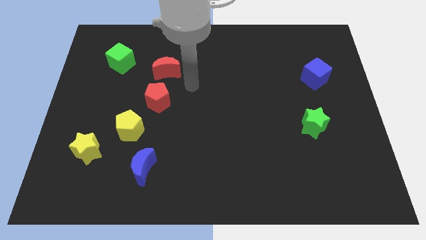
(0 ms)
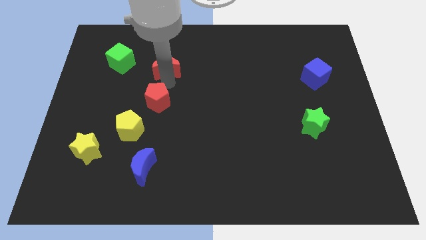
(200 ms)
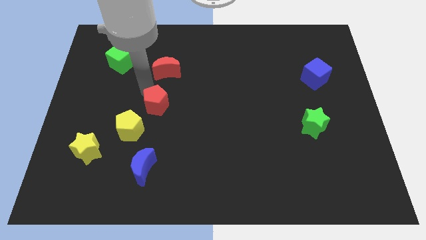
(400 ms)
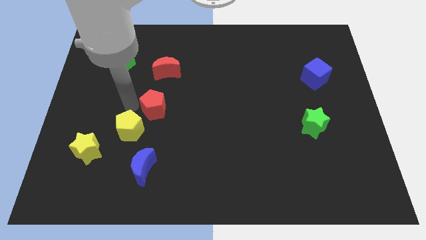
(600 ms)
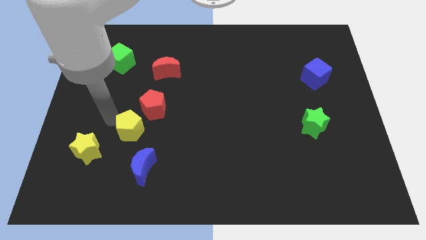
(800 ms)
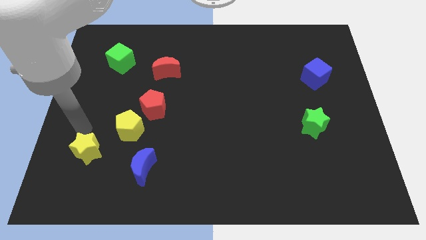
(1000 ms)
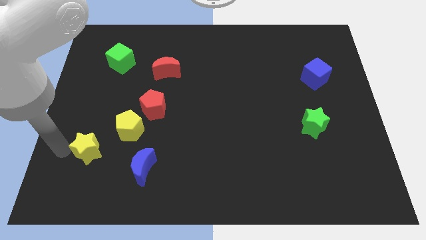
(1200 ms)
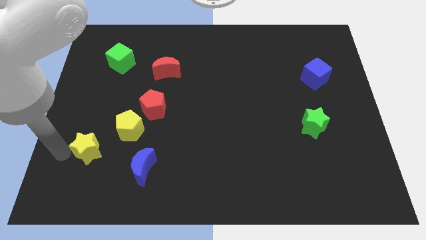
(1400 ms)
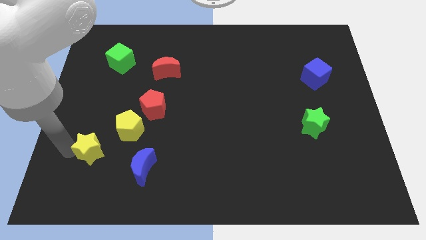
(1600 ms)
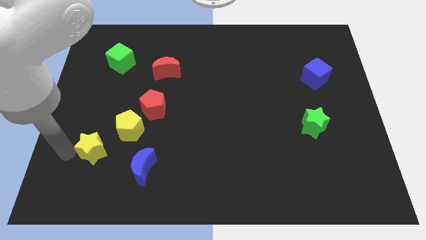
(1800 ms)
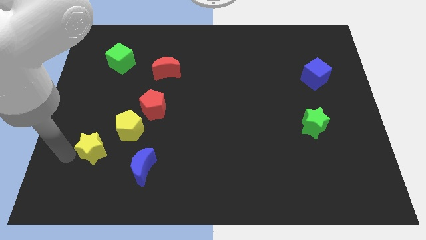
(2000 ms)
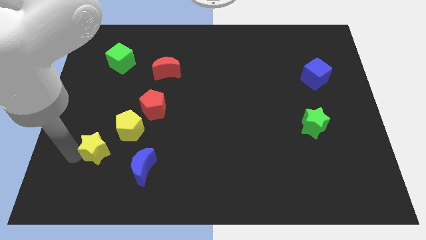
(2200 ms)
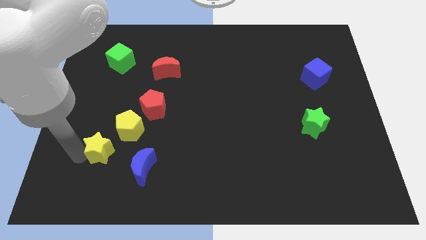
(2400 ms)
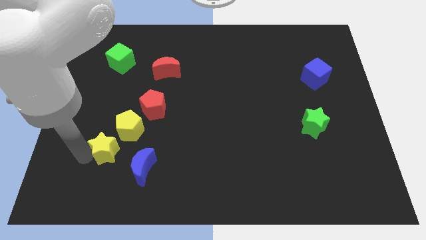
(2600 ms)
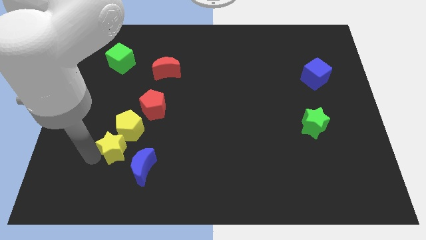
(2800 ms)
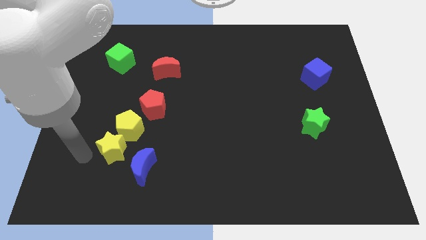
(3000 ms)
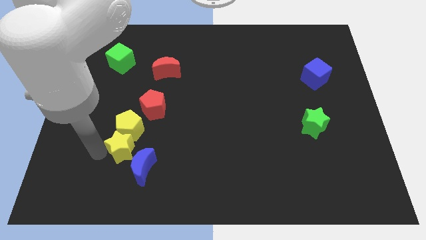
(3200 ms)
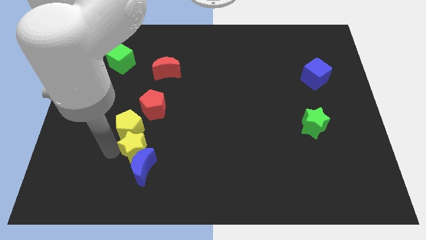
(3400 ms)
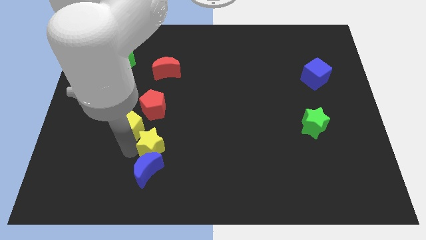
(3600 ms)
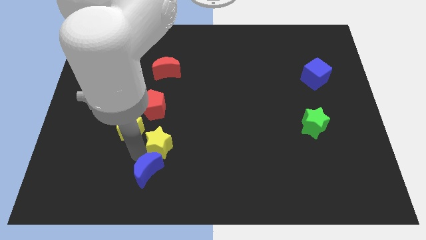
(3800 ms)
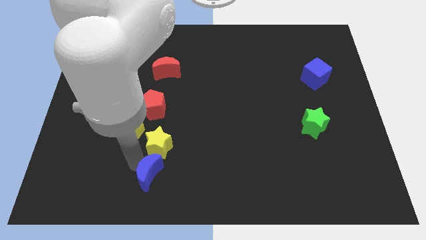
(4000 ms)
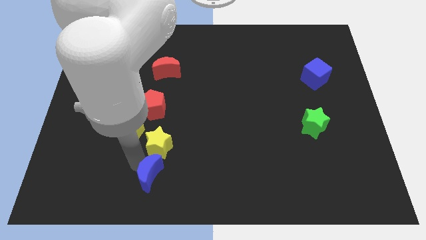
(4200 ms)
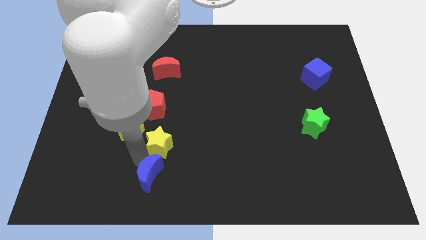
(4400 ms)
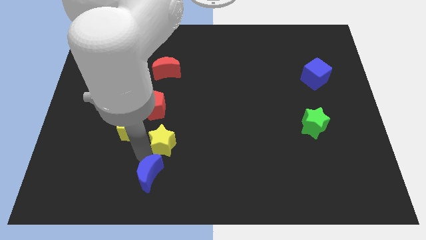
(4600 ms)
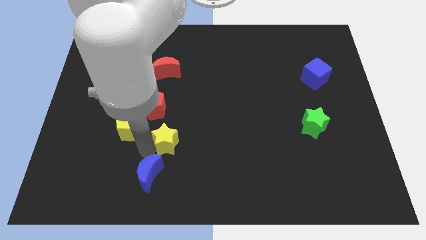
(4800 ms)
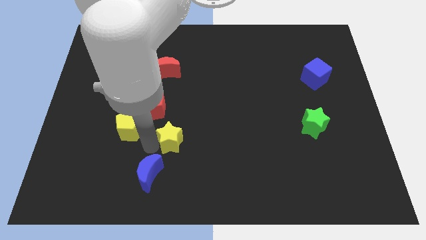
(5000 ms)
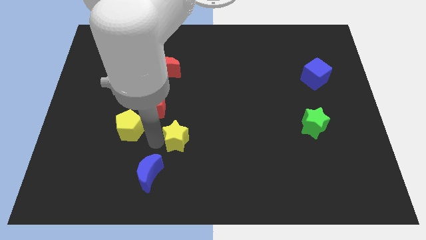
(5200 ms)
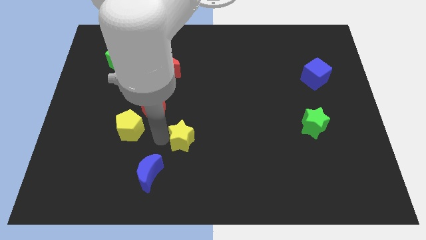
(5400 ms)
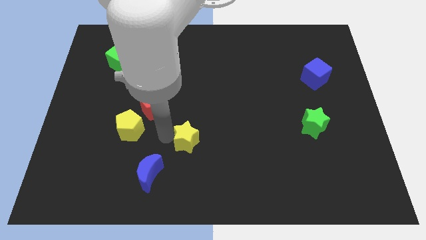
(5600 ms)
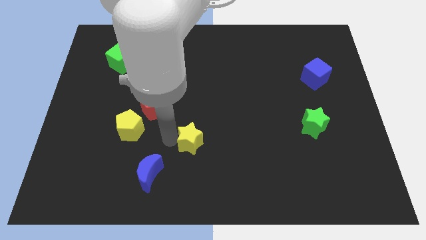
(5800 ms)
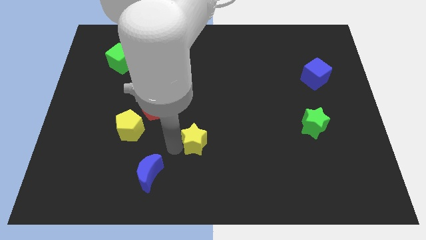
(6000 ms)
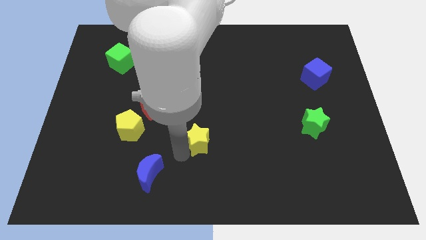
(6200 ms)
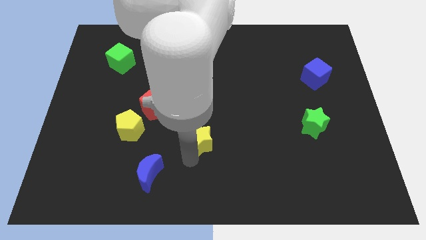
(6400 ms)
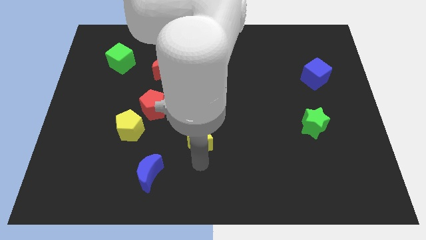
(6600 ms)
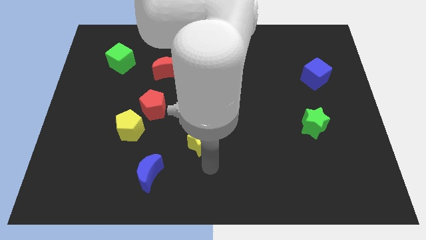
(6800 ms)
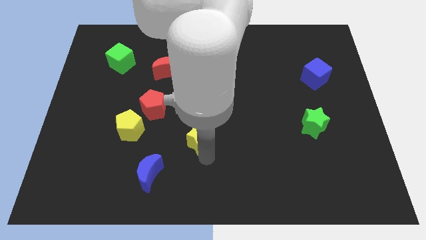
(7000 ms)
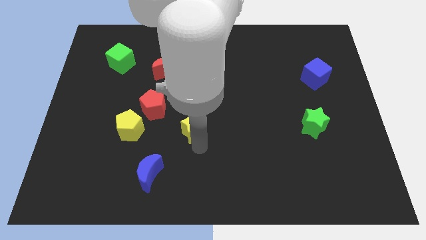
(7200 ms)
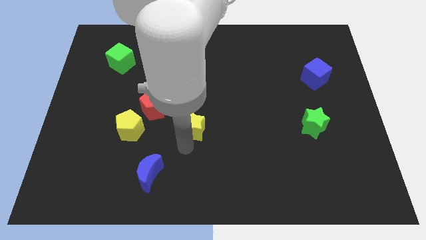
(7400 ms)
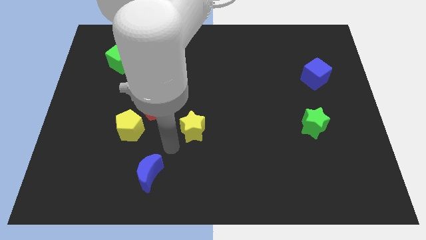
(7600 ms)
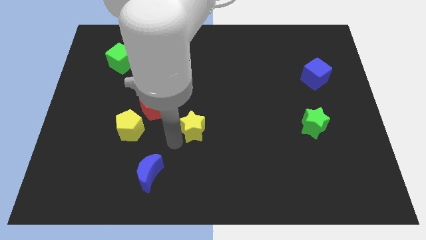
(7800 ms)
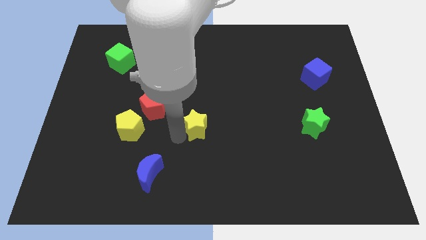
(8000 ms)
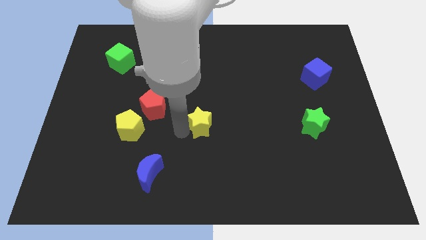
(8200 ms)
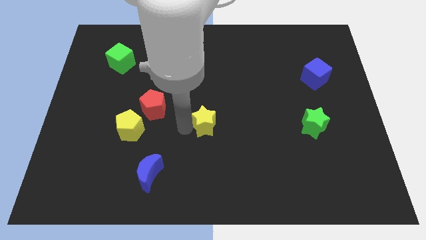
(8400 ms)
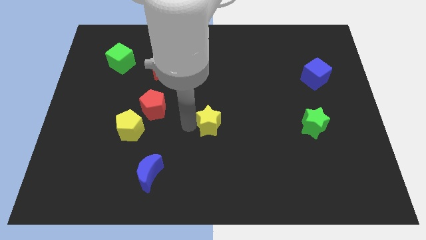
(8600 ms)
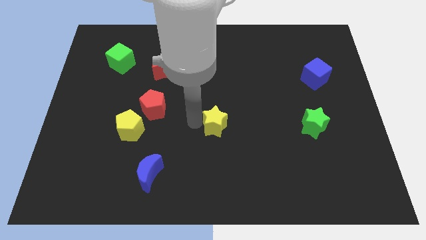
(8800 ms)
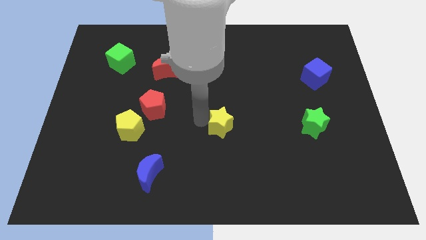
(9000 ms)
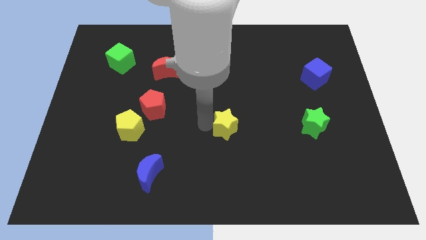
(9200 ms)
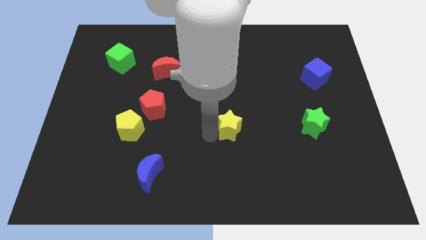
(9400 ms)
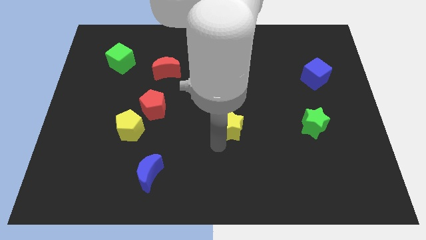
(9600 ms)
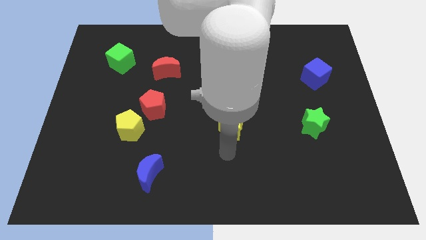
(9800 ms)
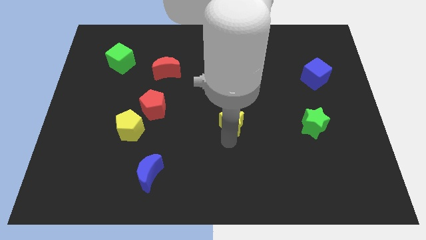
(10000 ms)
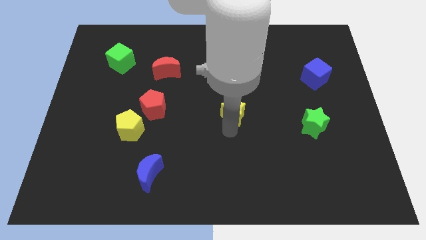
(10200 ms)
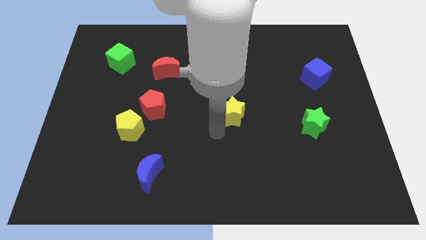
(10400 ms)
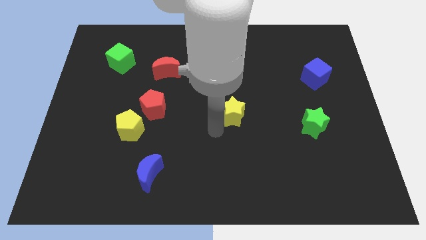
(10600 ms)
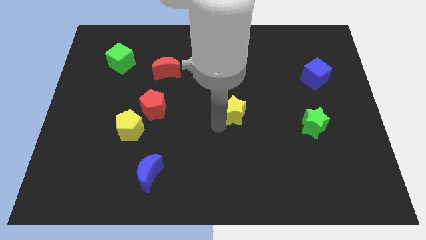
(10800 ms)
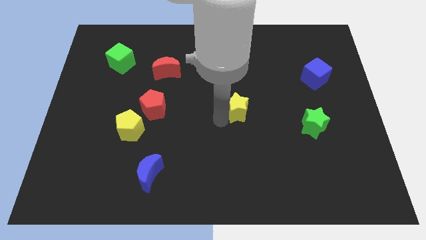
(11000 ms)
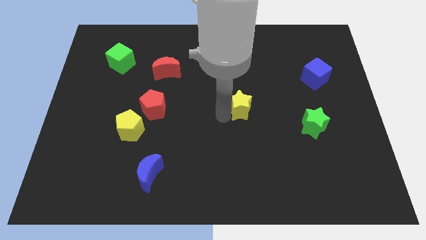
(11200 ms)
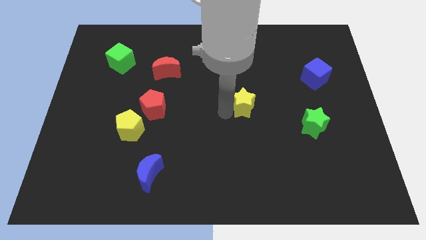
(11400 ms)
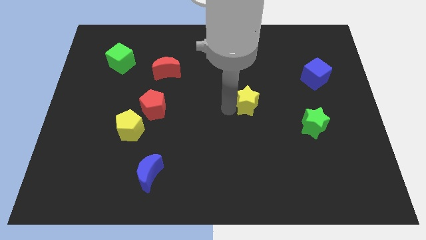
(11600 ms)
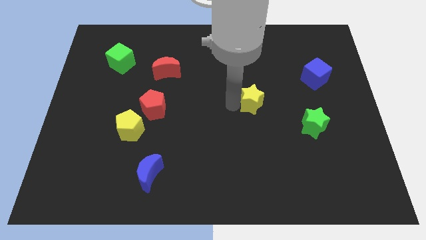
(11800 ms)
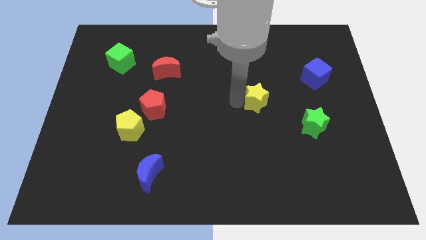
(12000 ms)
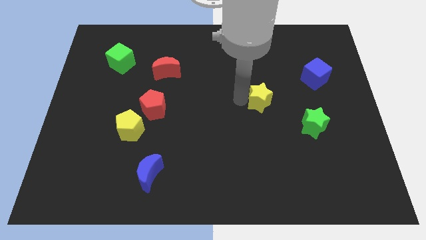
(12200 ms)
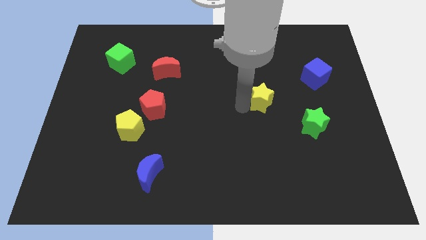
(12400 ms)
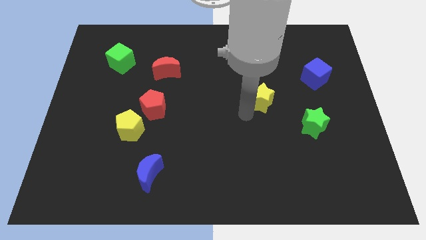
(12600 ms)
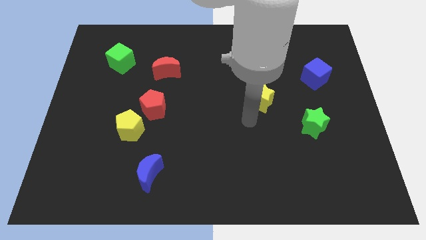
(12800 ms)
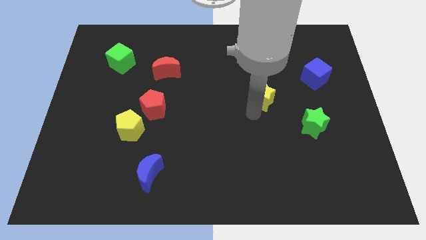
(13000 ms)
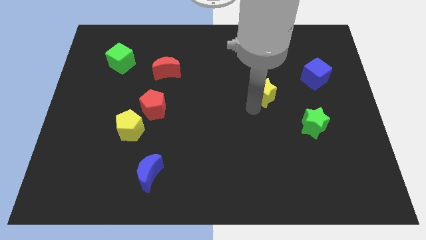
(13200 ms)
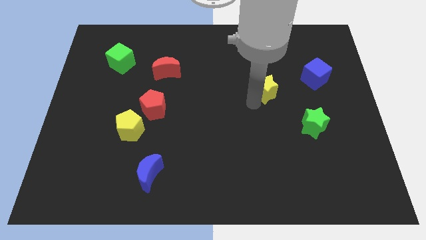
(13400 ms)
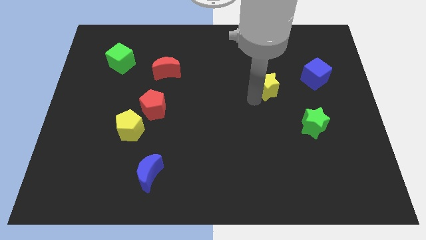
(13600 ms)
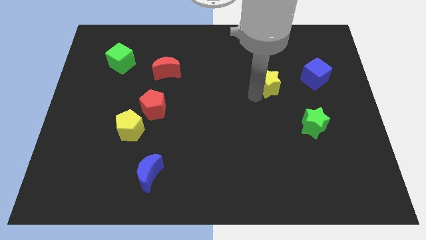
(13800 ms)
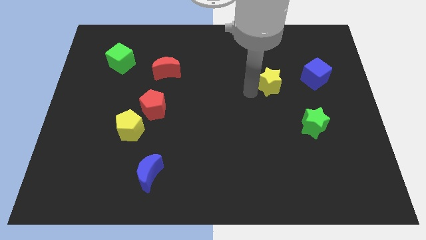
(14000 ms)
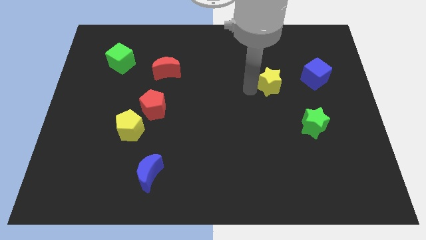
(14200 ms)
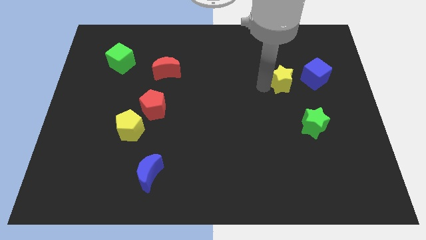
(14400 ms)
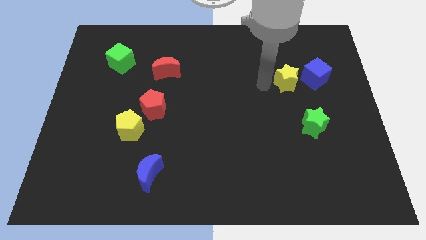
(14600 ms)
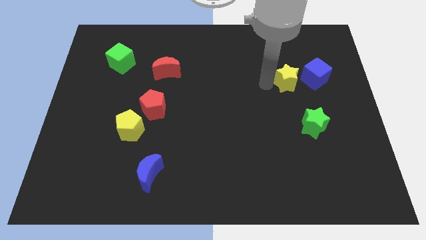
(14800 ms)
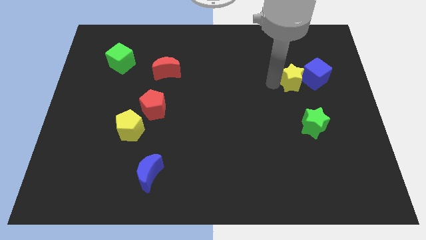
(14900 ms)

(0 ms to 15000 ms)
move the yellow star next to the blue cube
